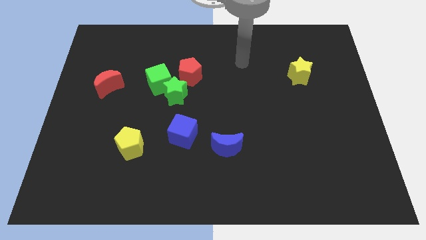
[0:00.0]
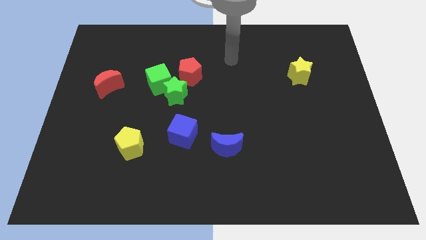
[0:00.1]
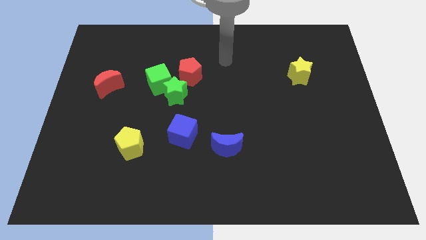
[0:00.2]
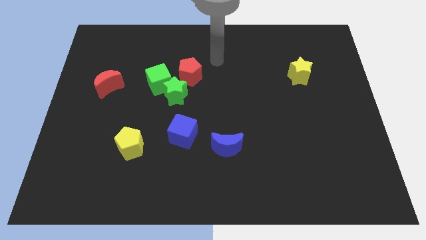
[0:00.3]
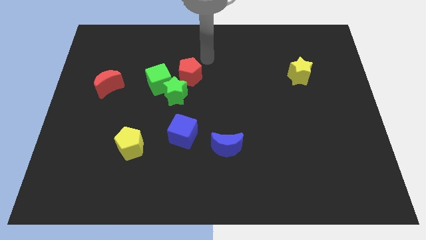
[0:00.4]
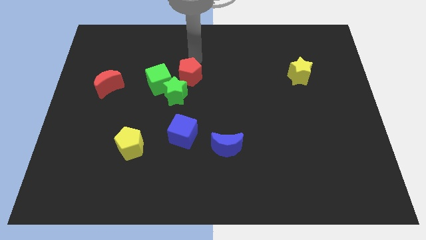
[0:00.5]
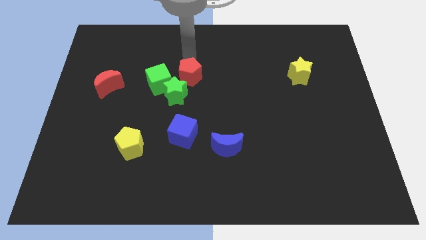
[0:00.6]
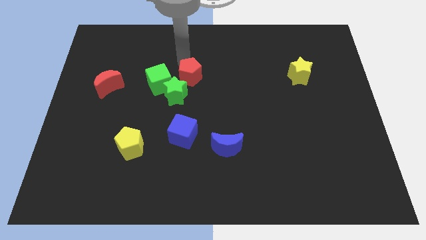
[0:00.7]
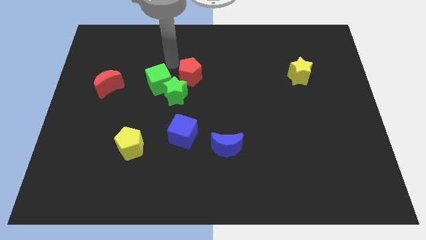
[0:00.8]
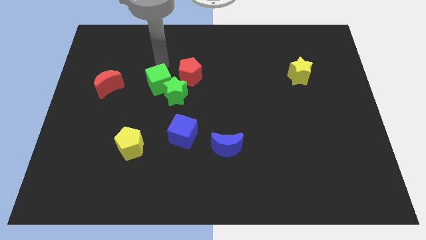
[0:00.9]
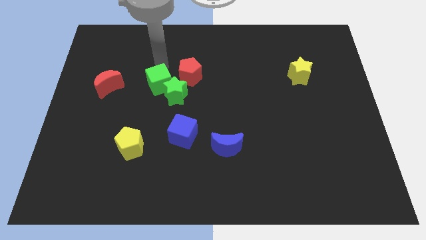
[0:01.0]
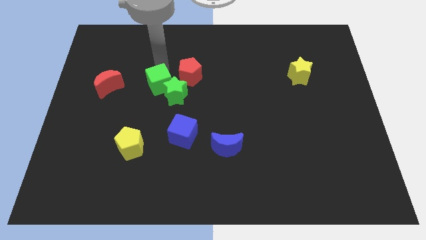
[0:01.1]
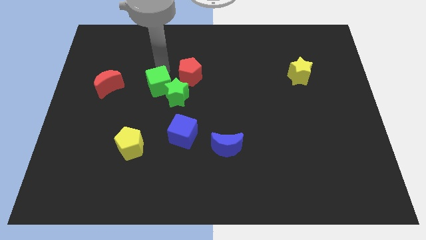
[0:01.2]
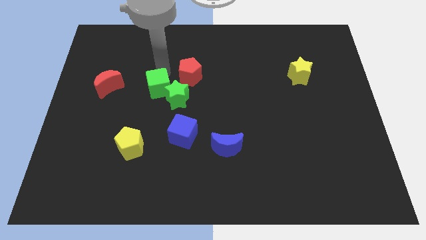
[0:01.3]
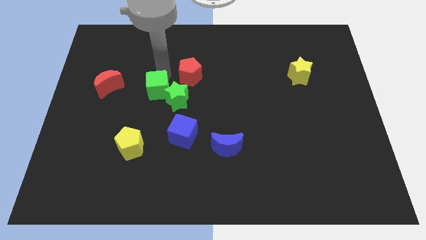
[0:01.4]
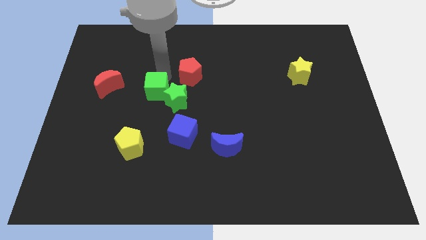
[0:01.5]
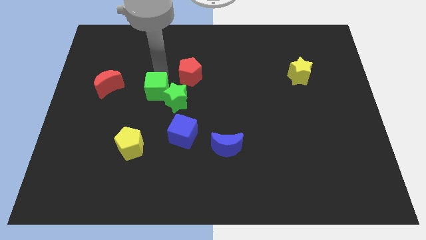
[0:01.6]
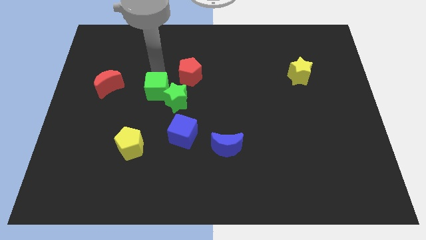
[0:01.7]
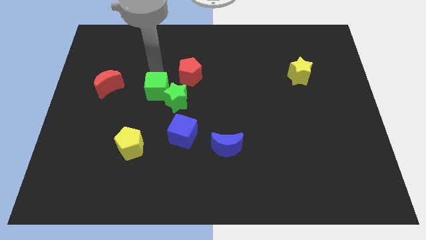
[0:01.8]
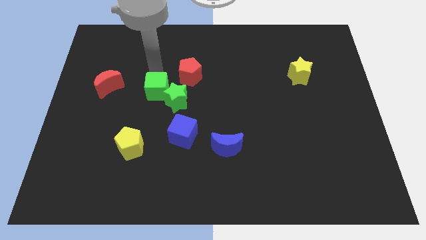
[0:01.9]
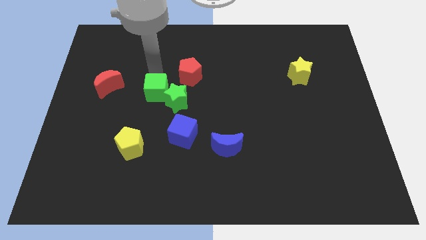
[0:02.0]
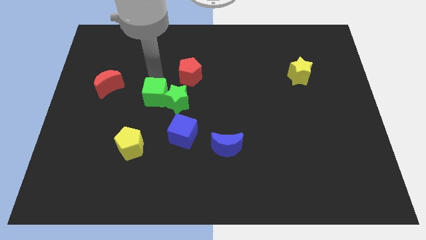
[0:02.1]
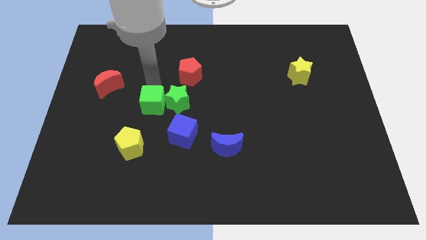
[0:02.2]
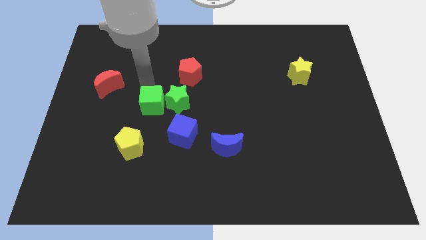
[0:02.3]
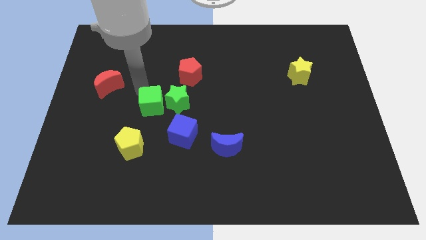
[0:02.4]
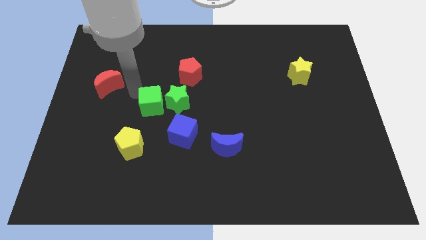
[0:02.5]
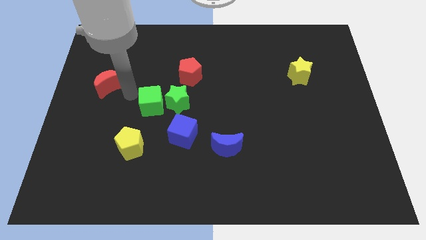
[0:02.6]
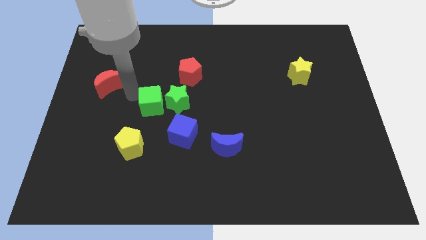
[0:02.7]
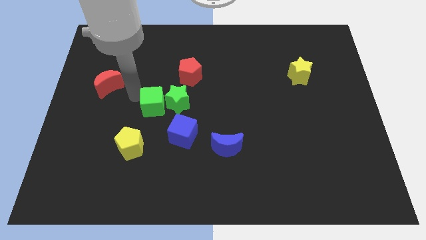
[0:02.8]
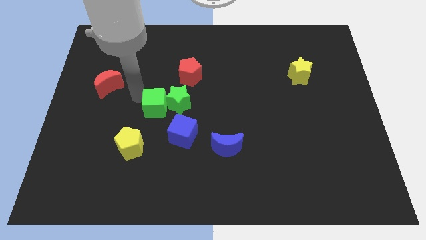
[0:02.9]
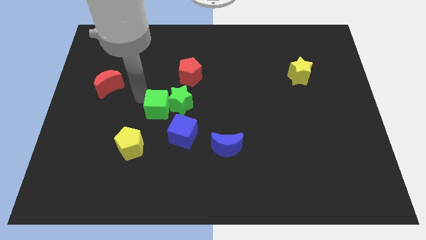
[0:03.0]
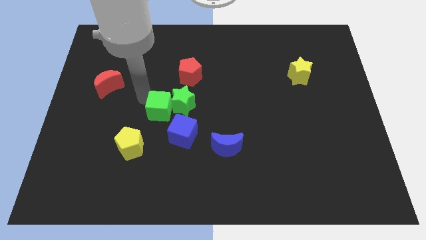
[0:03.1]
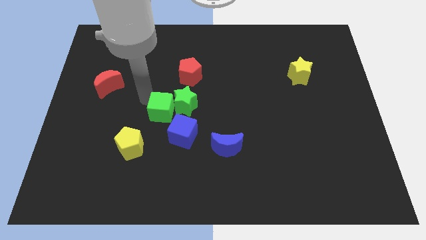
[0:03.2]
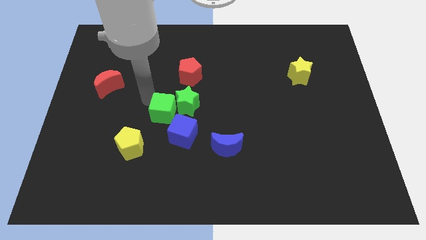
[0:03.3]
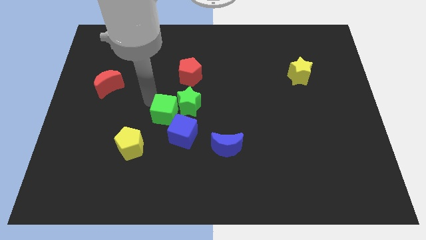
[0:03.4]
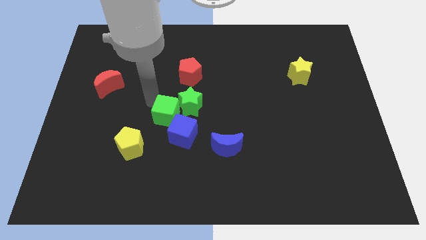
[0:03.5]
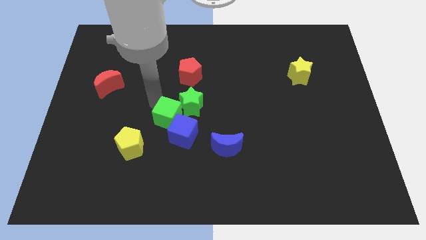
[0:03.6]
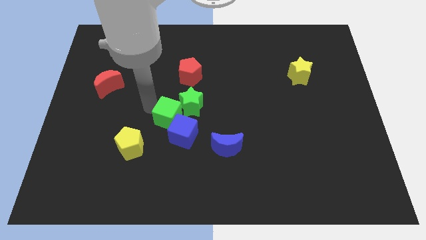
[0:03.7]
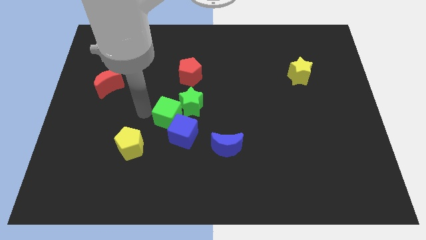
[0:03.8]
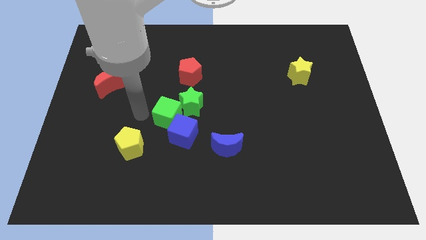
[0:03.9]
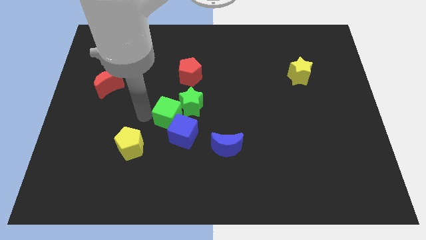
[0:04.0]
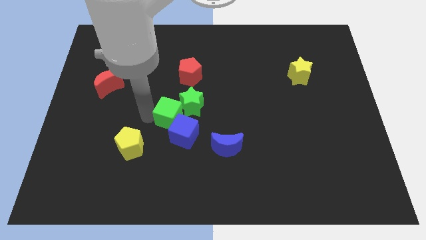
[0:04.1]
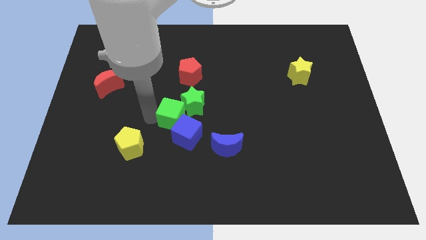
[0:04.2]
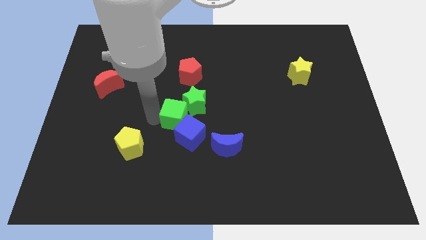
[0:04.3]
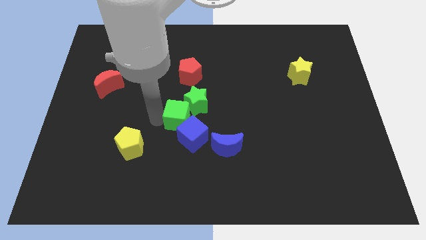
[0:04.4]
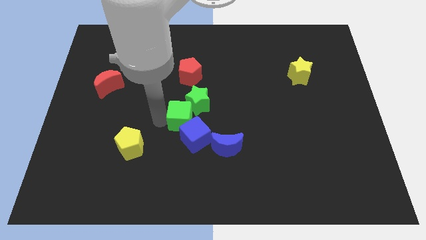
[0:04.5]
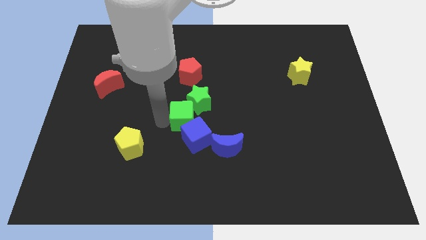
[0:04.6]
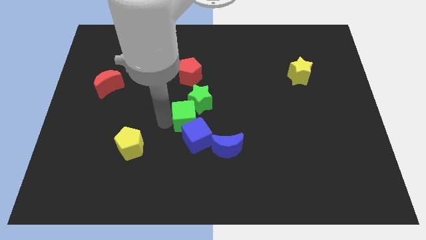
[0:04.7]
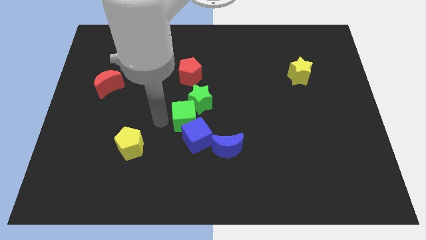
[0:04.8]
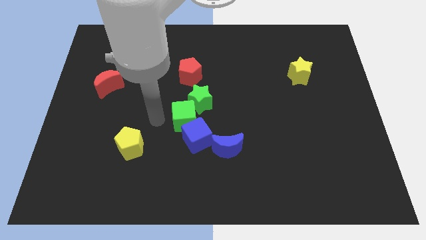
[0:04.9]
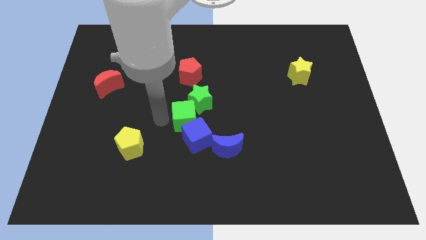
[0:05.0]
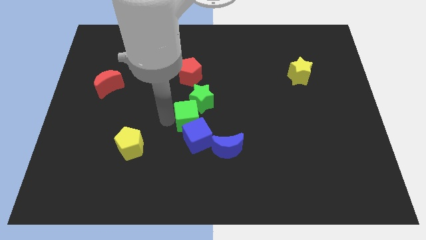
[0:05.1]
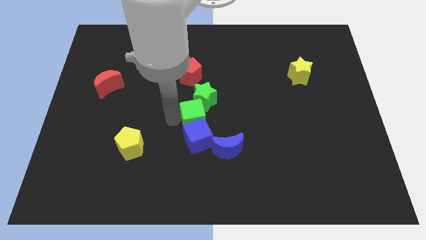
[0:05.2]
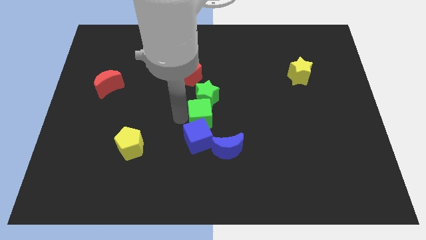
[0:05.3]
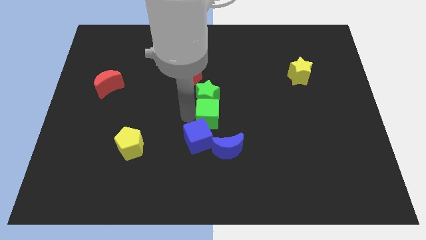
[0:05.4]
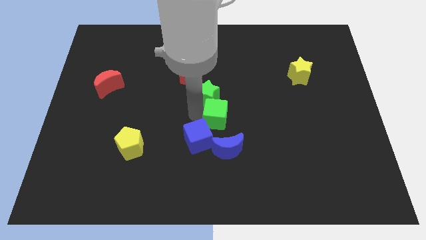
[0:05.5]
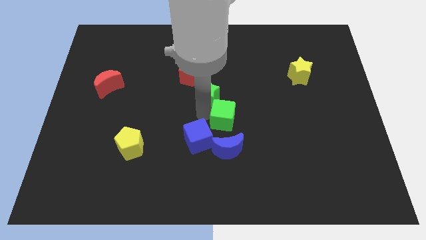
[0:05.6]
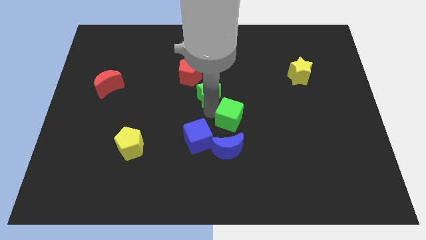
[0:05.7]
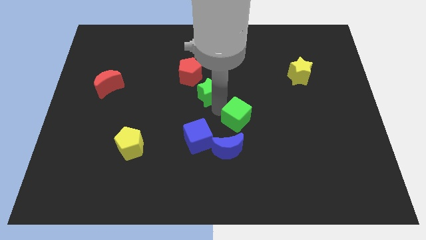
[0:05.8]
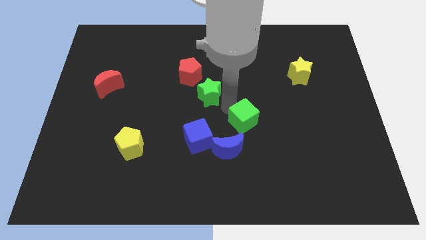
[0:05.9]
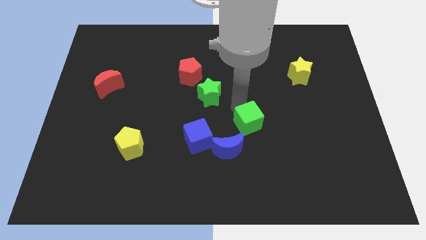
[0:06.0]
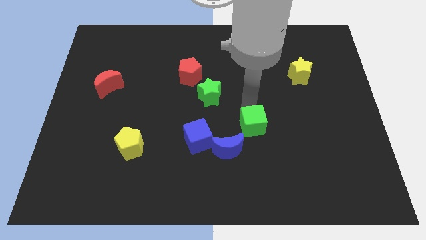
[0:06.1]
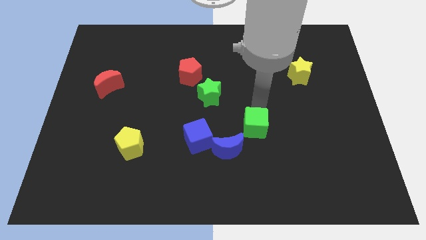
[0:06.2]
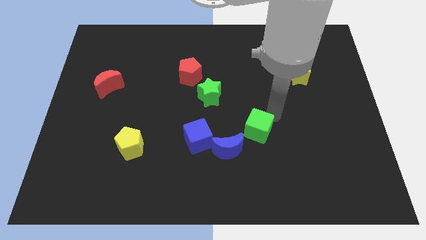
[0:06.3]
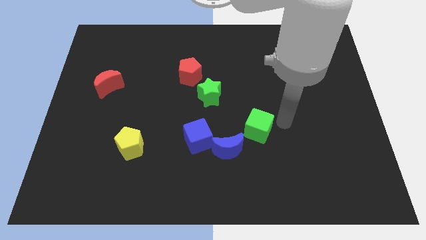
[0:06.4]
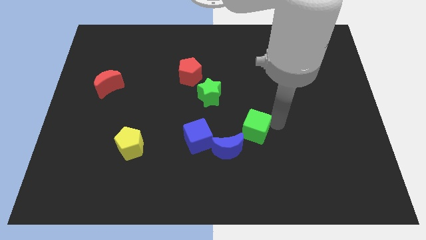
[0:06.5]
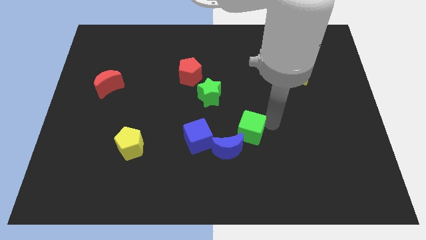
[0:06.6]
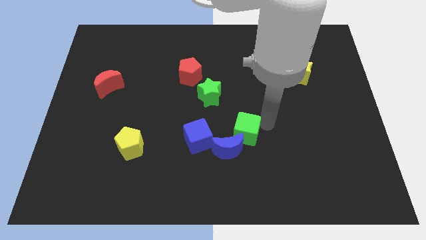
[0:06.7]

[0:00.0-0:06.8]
put the green cube close to the blue moon

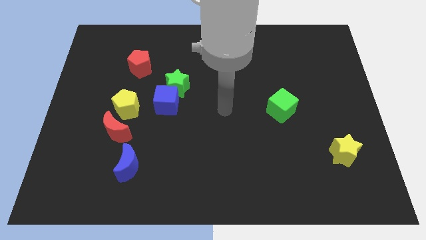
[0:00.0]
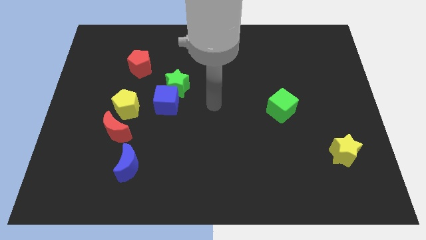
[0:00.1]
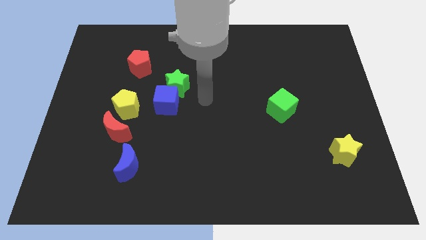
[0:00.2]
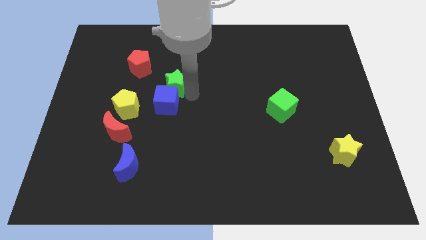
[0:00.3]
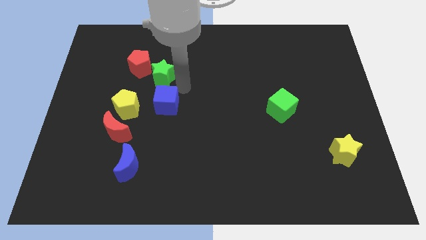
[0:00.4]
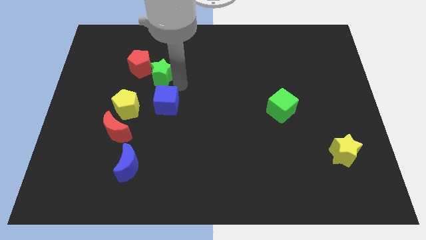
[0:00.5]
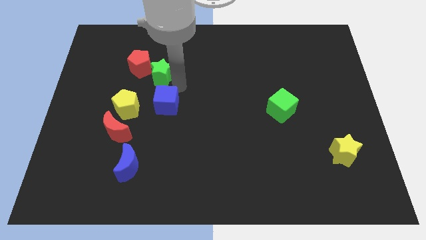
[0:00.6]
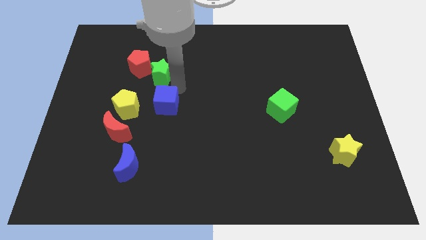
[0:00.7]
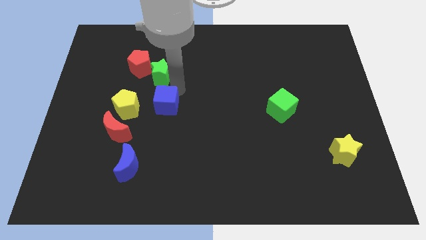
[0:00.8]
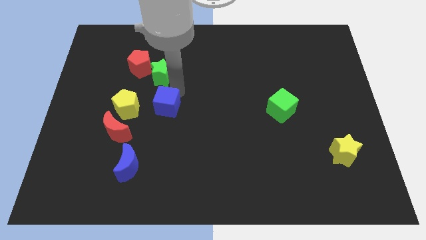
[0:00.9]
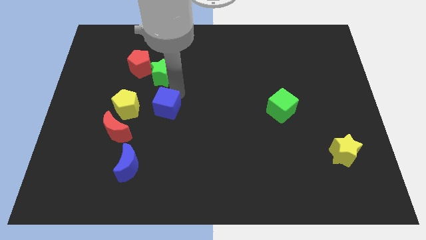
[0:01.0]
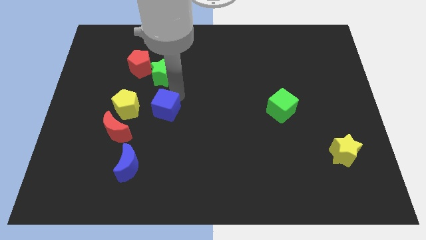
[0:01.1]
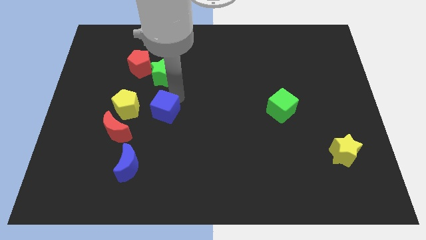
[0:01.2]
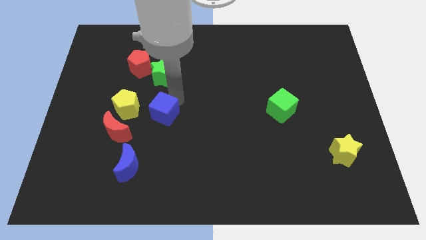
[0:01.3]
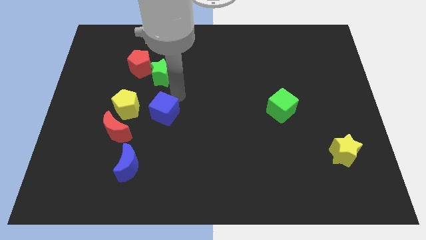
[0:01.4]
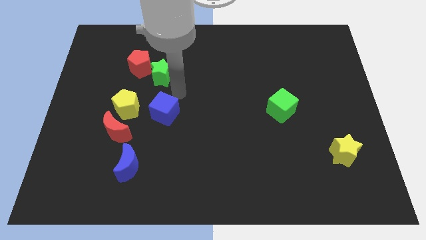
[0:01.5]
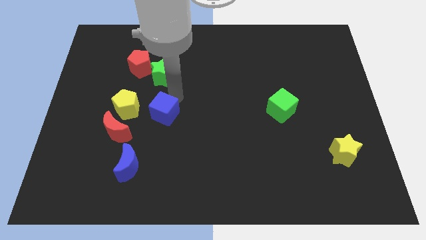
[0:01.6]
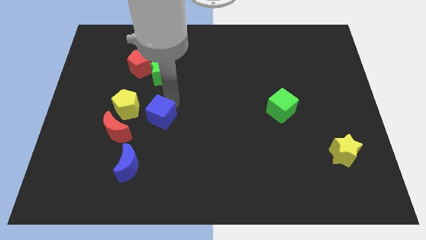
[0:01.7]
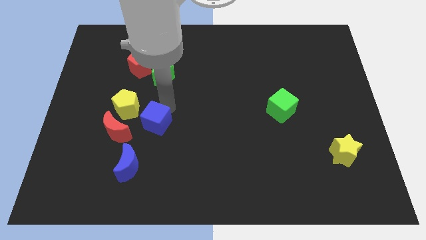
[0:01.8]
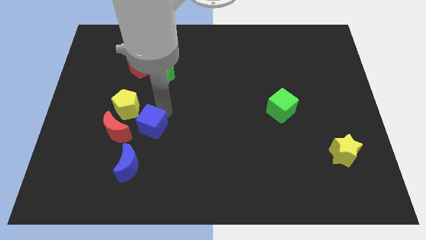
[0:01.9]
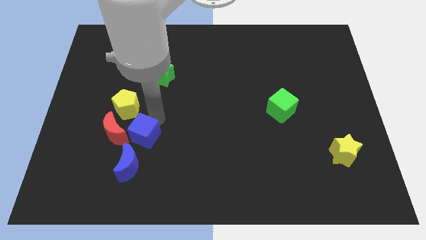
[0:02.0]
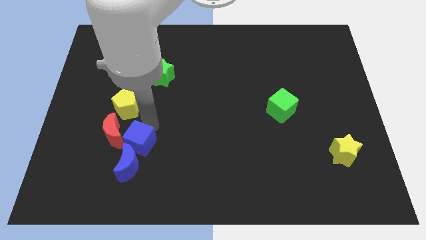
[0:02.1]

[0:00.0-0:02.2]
slide the blue cube towards the blue moon
